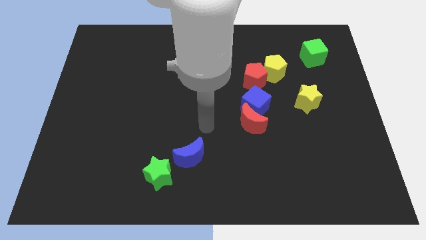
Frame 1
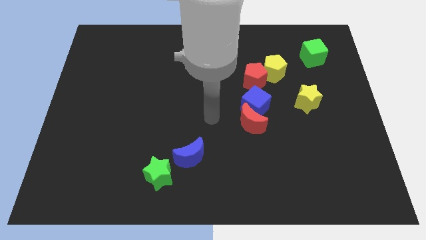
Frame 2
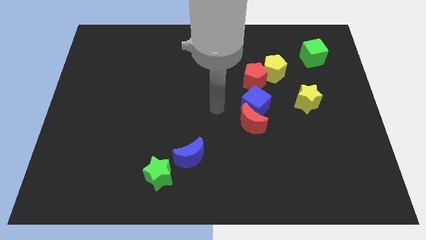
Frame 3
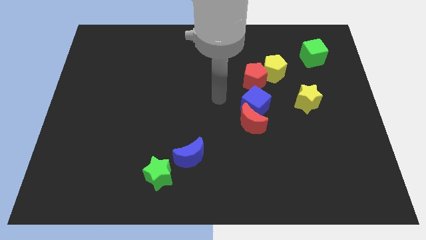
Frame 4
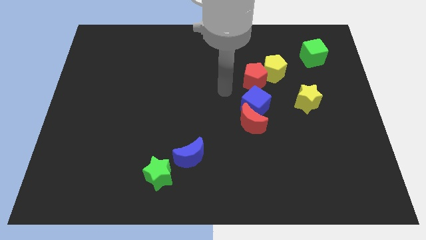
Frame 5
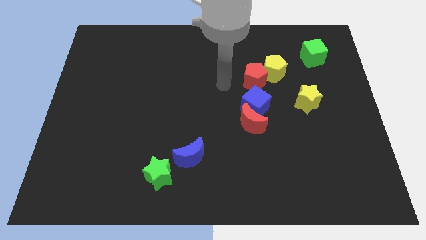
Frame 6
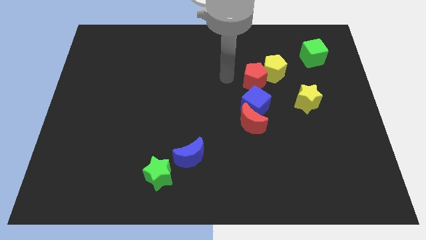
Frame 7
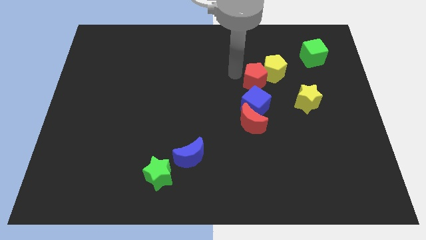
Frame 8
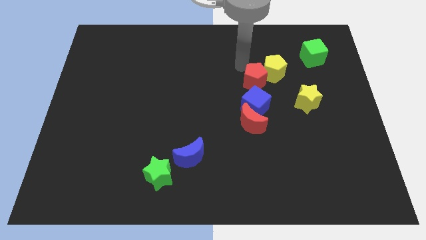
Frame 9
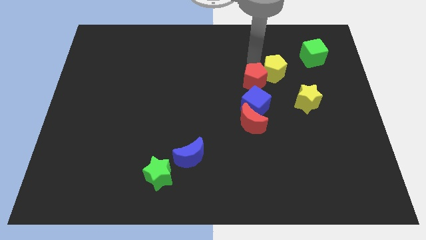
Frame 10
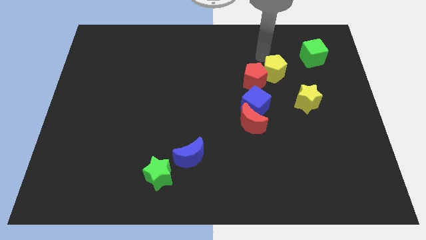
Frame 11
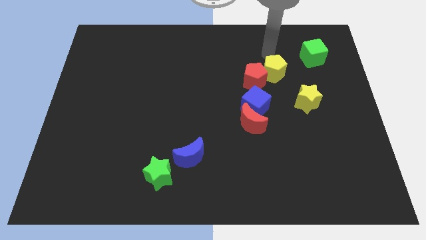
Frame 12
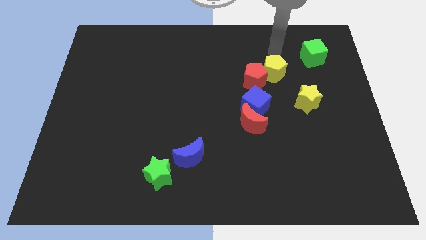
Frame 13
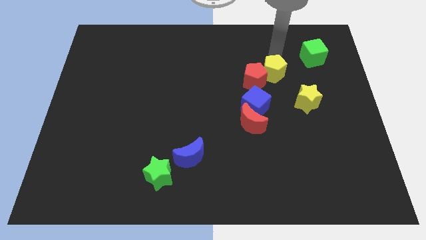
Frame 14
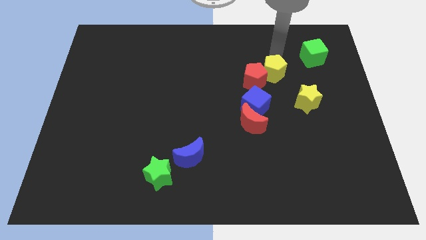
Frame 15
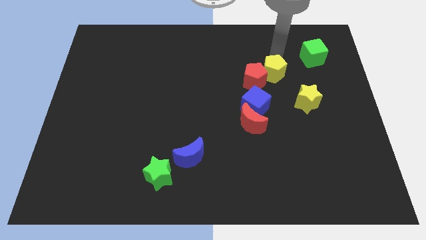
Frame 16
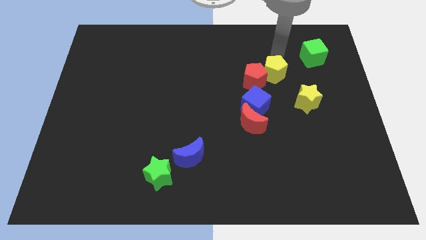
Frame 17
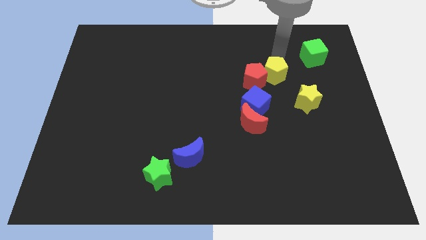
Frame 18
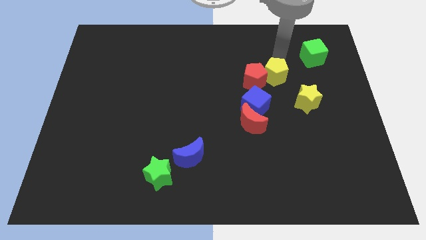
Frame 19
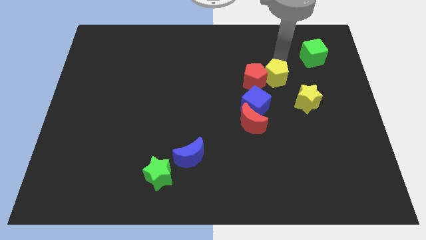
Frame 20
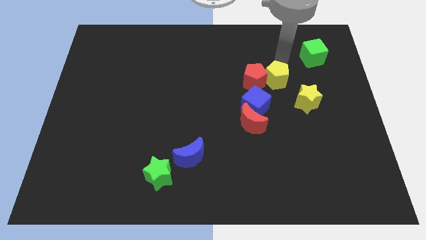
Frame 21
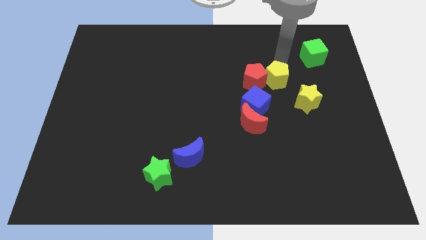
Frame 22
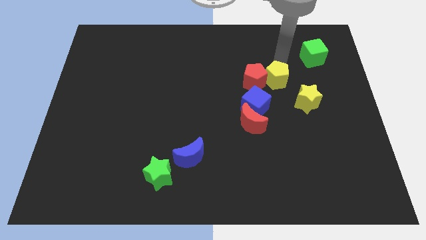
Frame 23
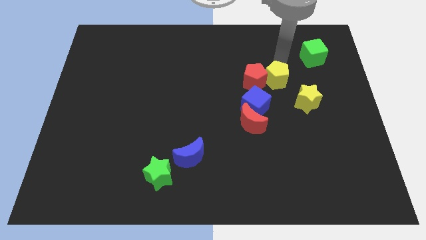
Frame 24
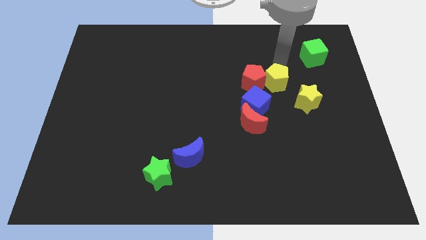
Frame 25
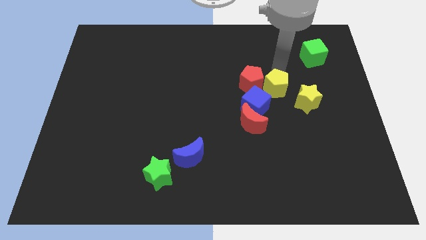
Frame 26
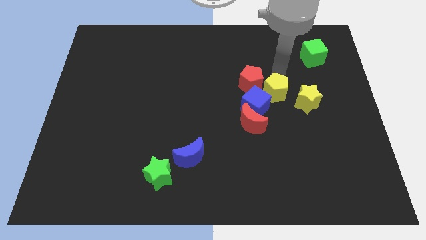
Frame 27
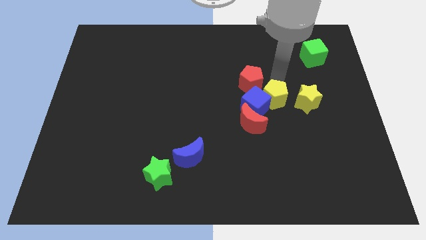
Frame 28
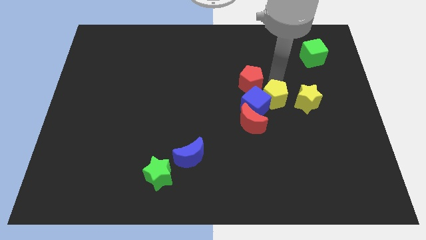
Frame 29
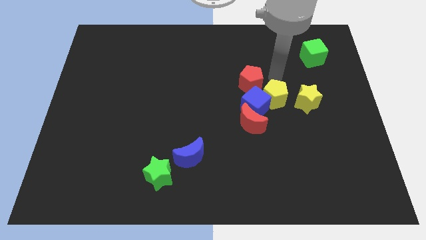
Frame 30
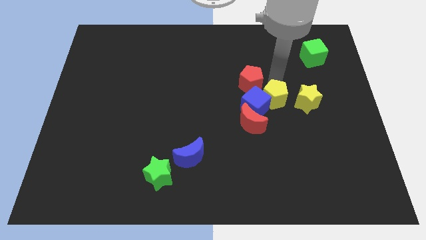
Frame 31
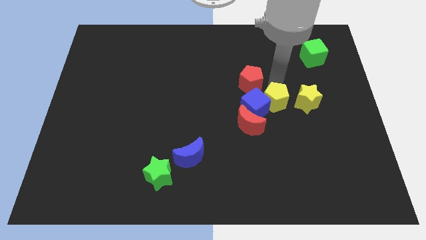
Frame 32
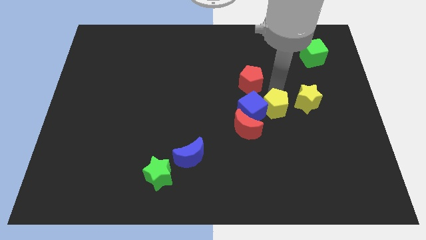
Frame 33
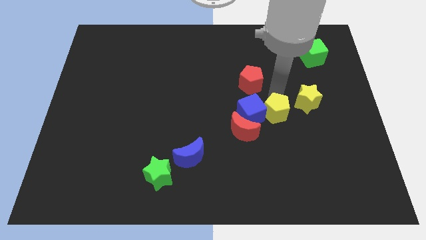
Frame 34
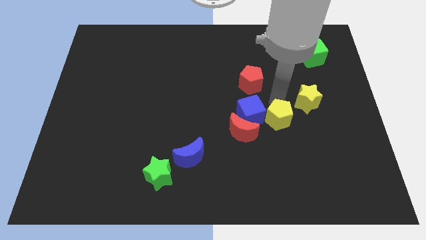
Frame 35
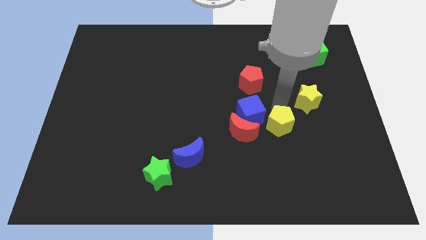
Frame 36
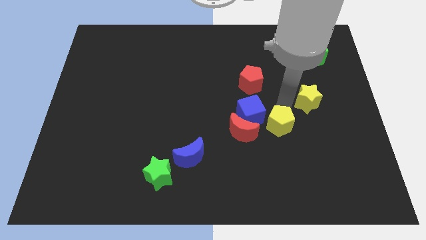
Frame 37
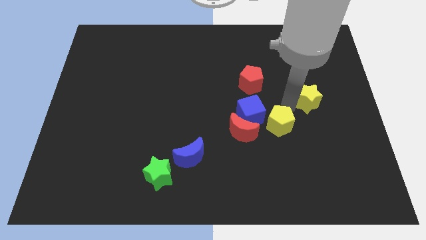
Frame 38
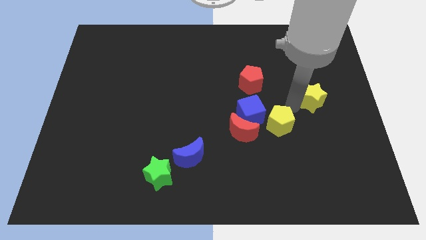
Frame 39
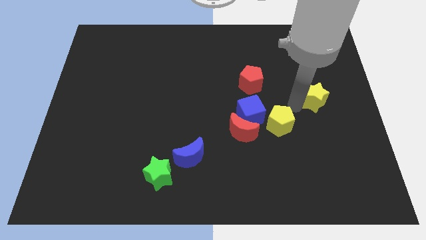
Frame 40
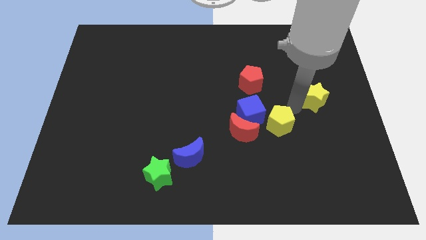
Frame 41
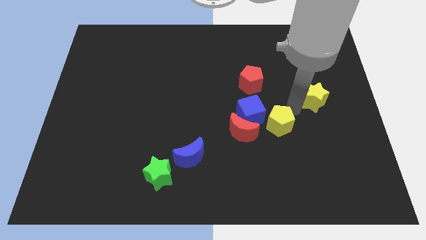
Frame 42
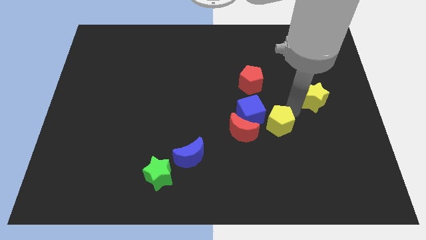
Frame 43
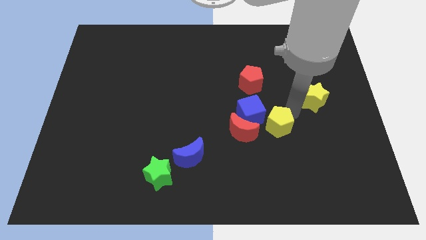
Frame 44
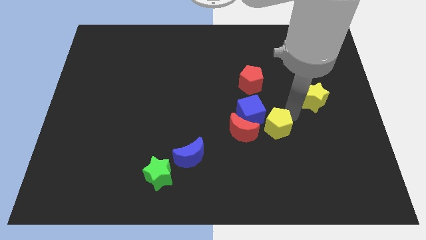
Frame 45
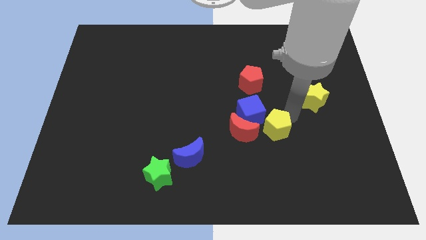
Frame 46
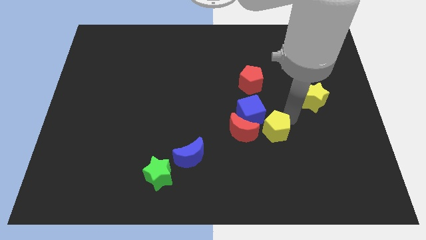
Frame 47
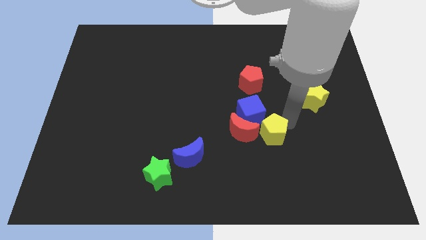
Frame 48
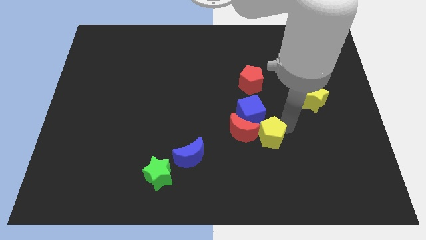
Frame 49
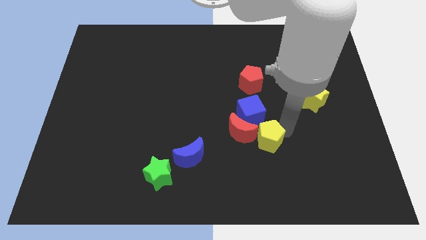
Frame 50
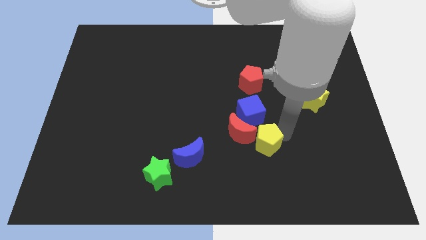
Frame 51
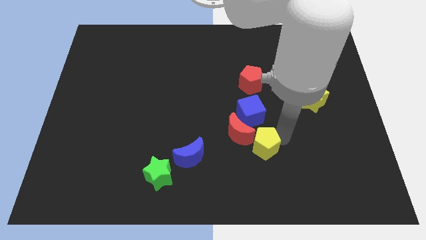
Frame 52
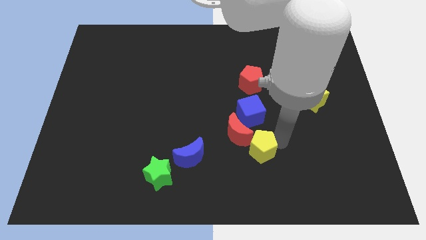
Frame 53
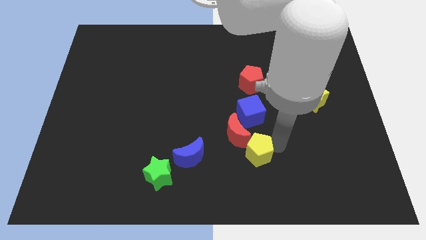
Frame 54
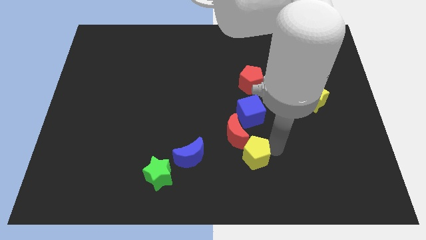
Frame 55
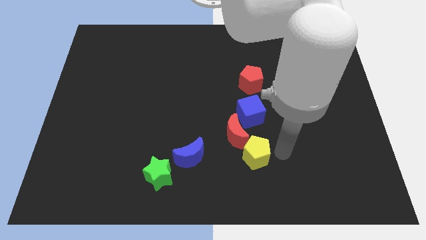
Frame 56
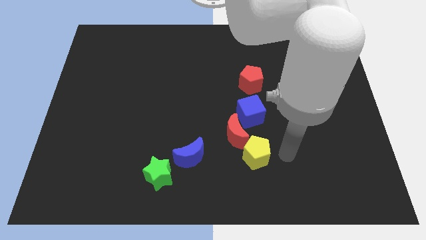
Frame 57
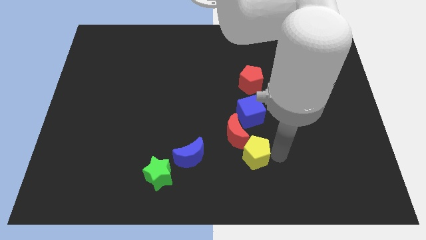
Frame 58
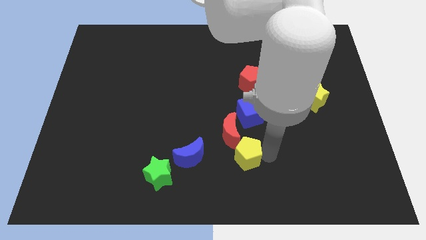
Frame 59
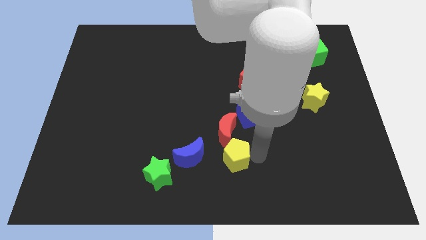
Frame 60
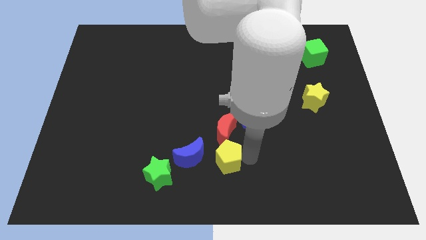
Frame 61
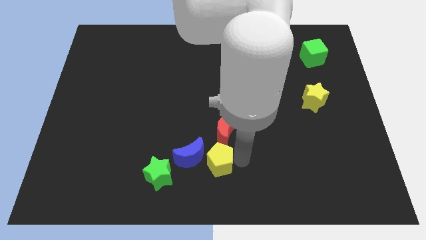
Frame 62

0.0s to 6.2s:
put the yellow pentagon to the bottom left side of the red moon

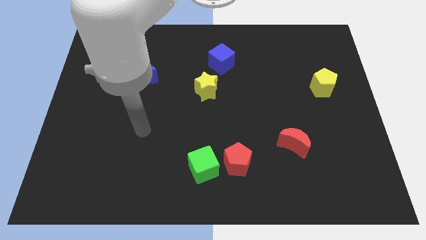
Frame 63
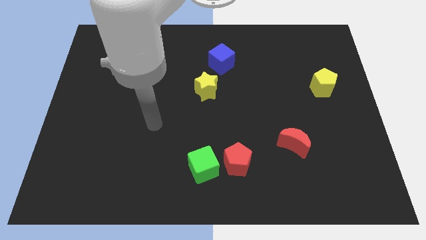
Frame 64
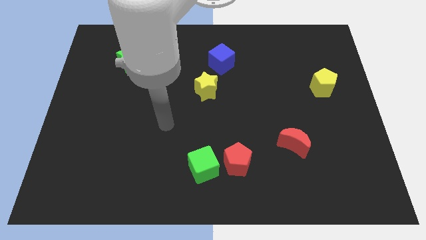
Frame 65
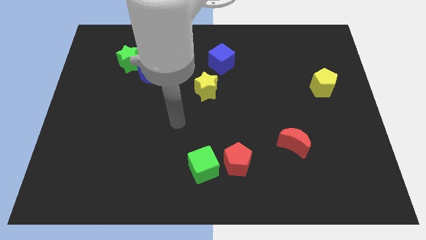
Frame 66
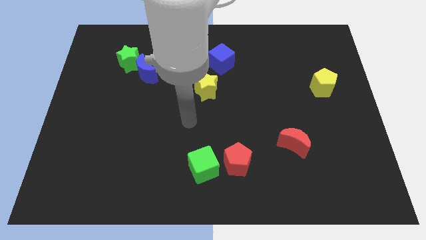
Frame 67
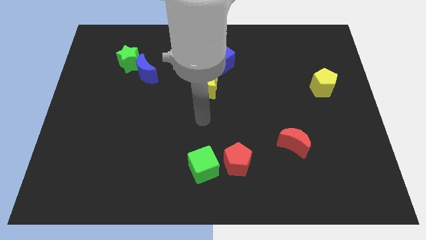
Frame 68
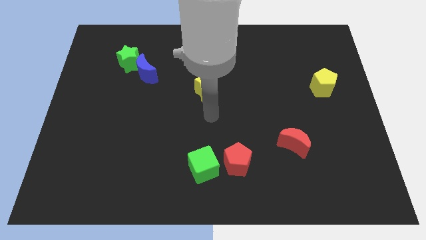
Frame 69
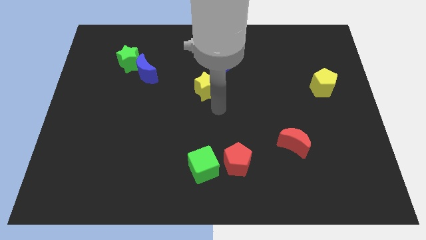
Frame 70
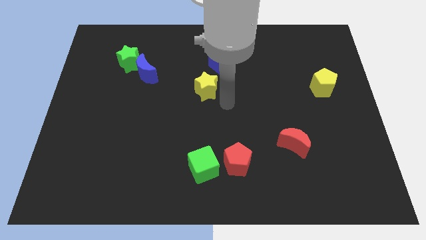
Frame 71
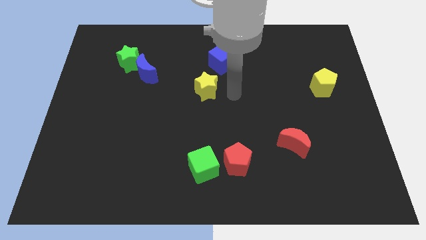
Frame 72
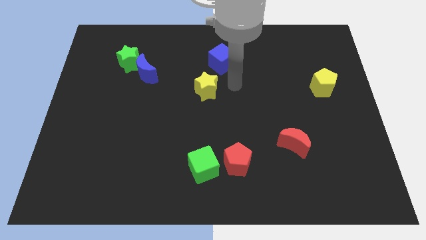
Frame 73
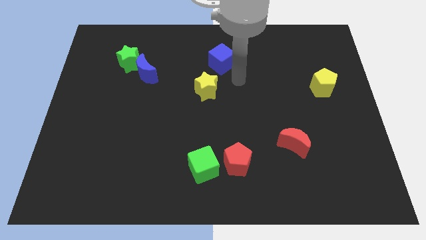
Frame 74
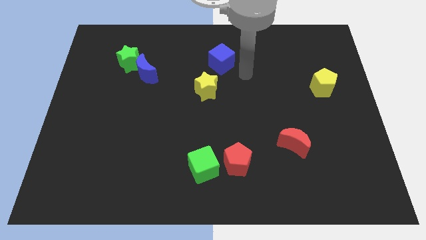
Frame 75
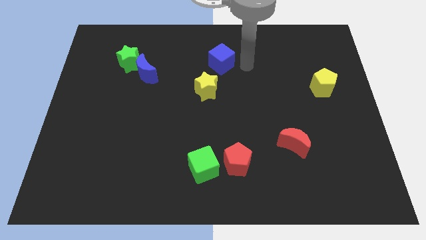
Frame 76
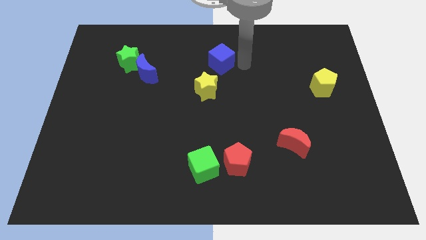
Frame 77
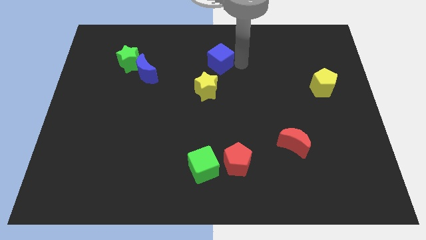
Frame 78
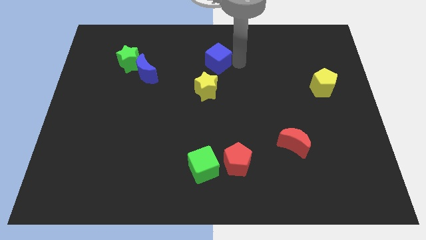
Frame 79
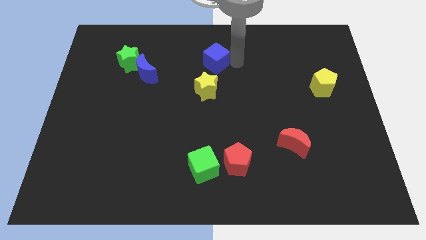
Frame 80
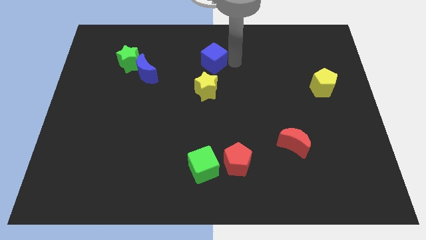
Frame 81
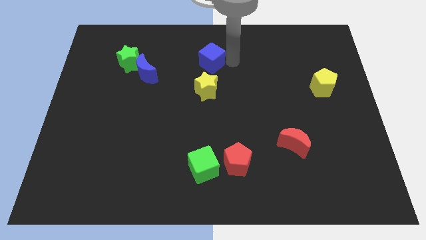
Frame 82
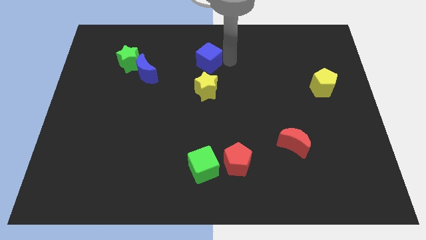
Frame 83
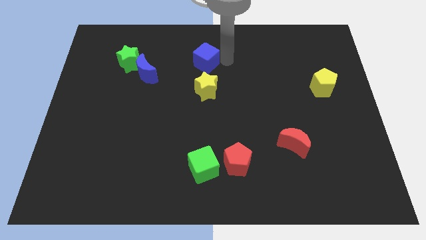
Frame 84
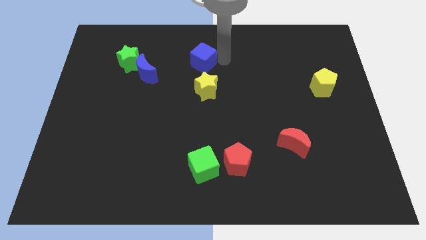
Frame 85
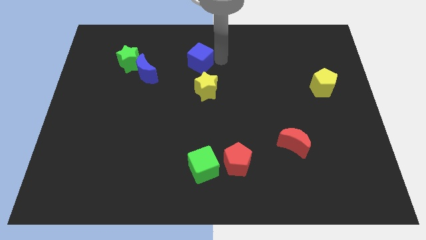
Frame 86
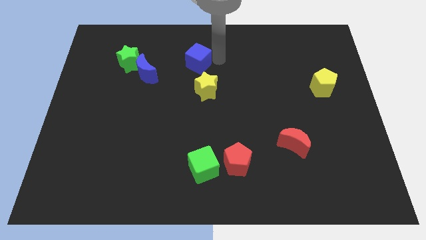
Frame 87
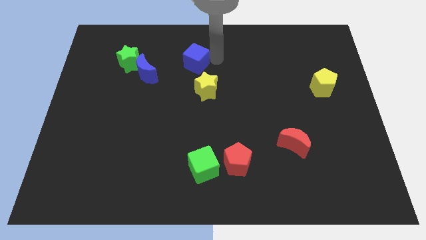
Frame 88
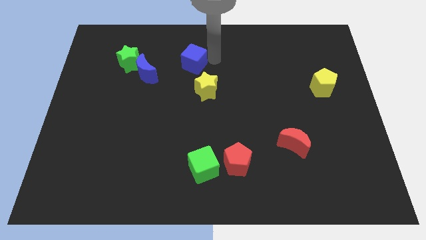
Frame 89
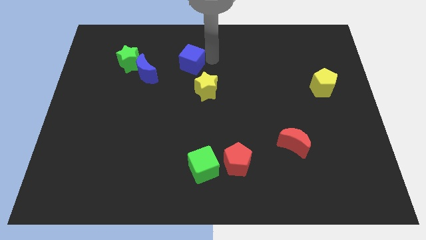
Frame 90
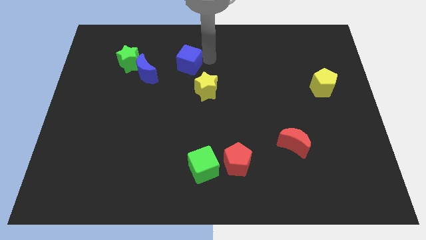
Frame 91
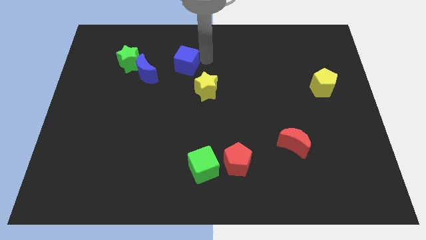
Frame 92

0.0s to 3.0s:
put the blue cube to the top right side of the blue moon
